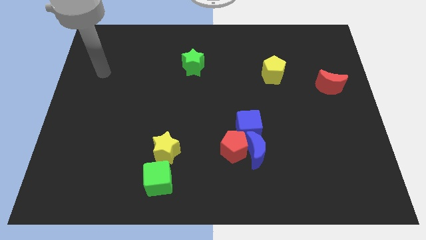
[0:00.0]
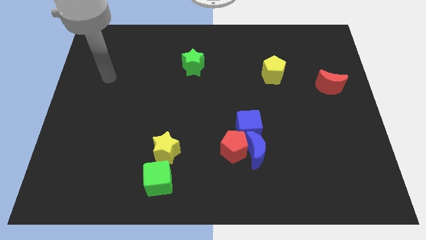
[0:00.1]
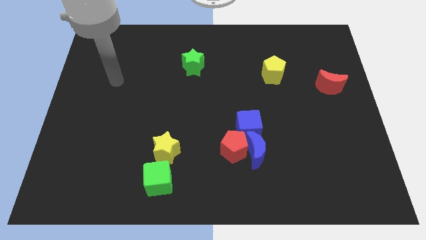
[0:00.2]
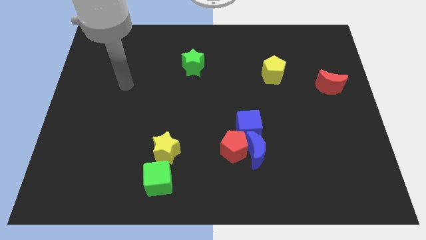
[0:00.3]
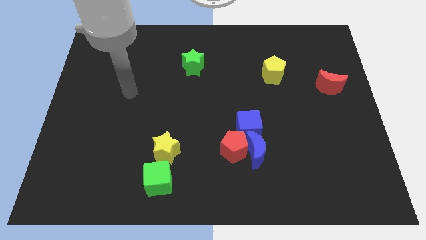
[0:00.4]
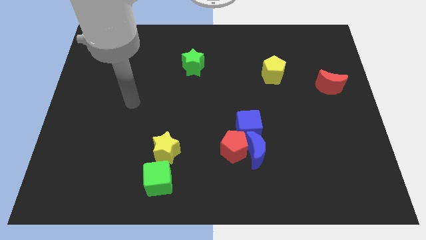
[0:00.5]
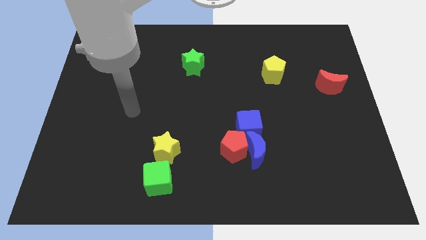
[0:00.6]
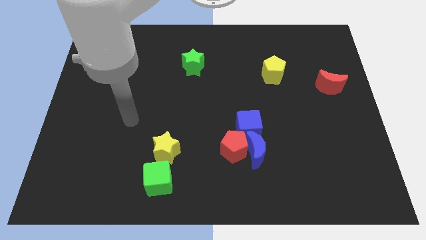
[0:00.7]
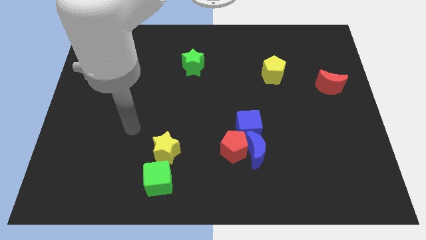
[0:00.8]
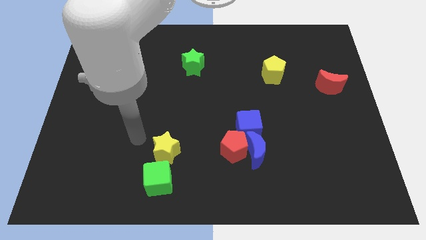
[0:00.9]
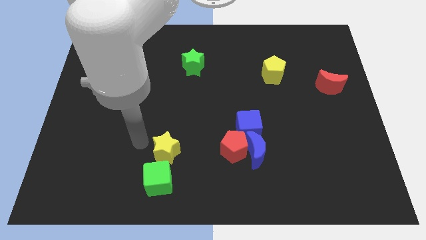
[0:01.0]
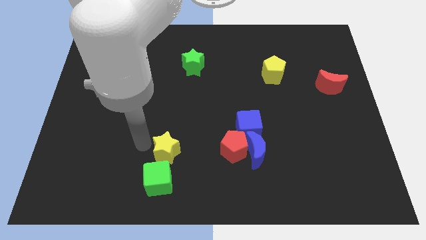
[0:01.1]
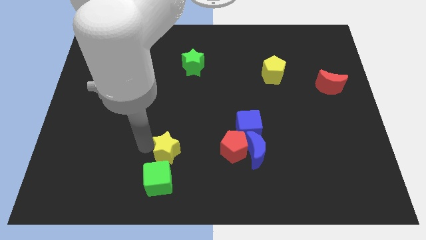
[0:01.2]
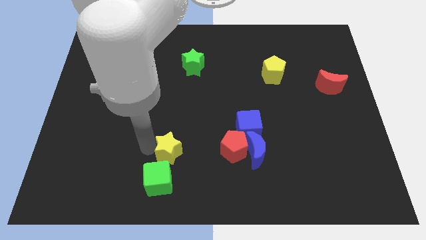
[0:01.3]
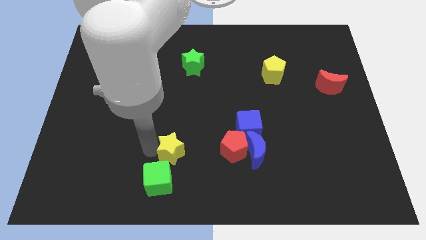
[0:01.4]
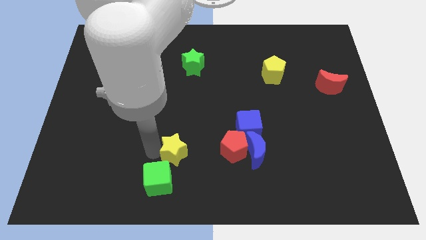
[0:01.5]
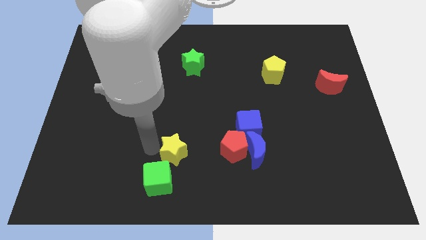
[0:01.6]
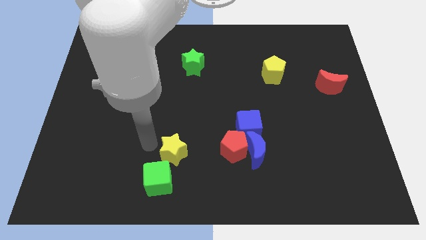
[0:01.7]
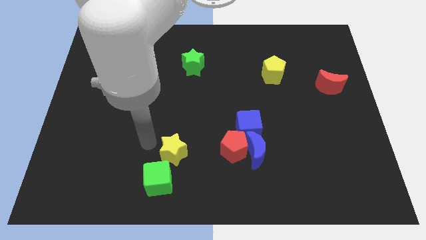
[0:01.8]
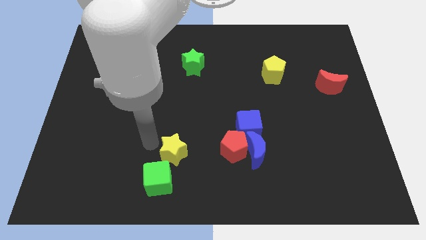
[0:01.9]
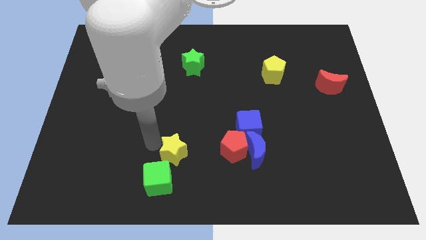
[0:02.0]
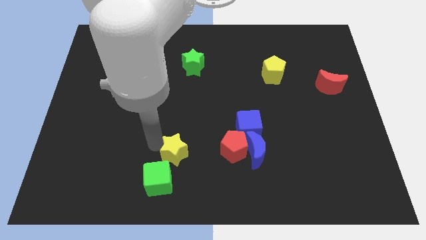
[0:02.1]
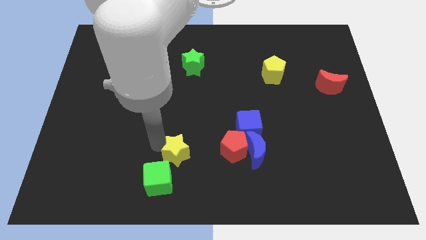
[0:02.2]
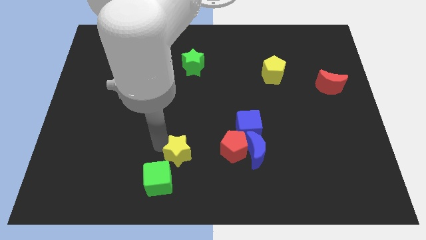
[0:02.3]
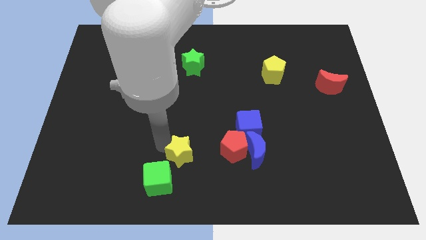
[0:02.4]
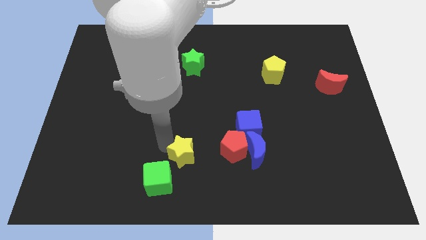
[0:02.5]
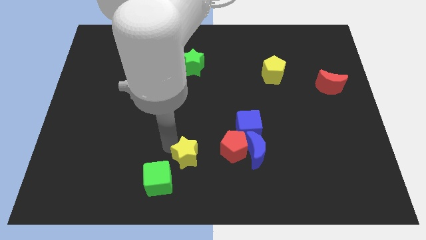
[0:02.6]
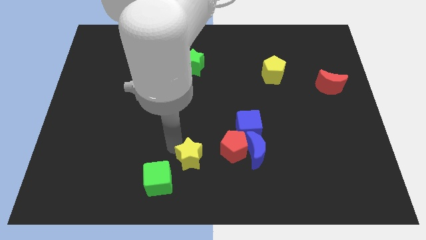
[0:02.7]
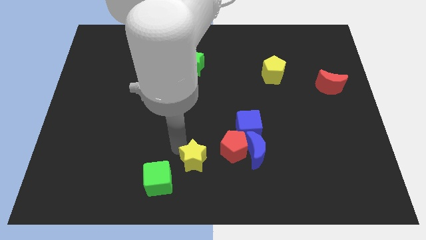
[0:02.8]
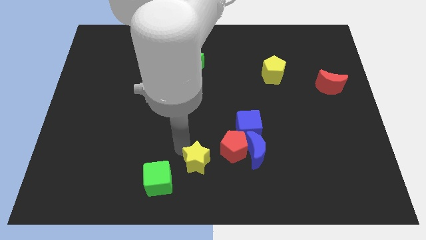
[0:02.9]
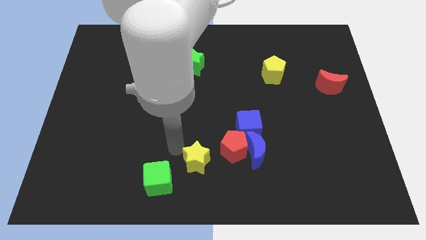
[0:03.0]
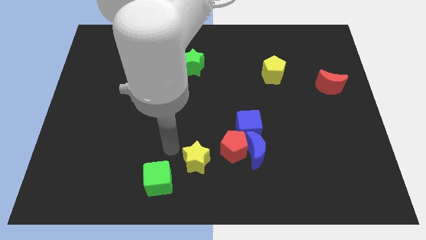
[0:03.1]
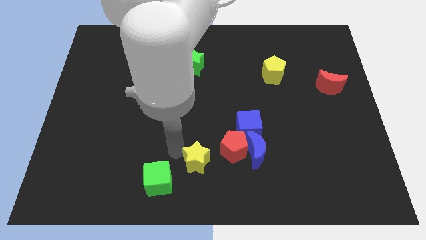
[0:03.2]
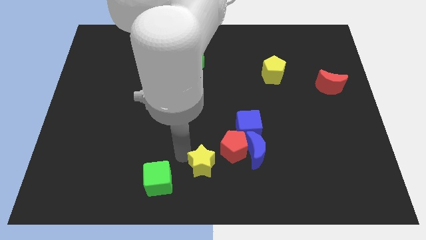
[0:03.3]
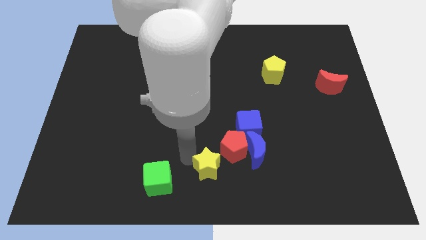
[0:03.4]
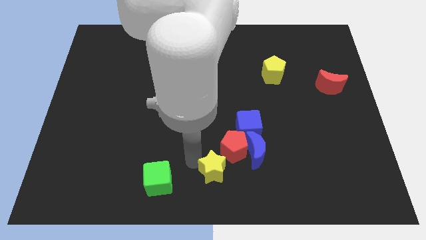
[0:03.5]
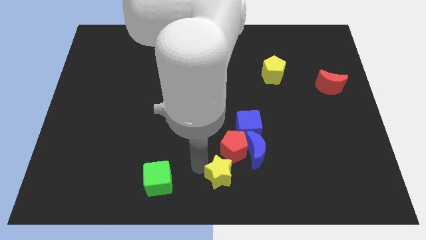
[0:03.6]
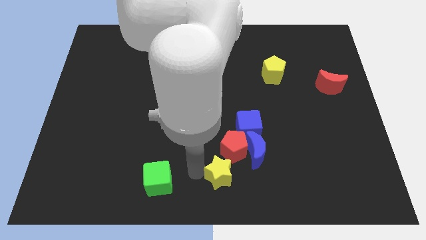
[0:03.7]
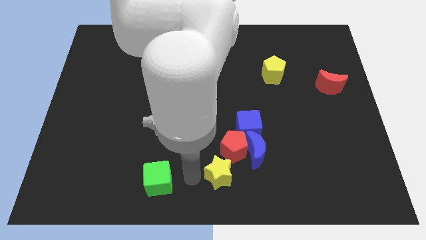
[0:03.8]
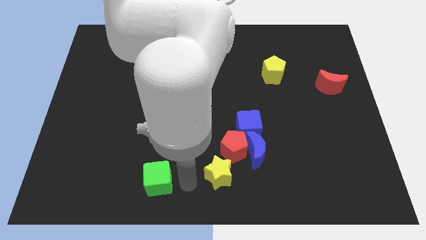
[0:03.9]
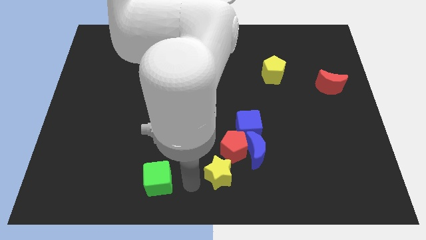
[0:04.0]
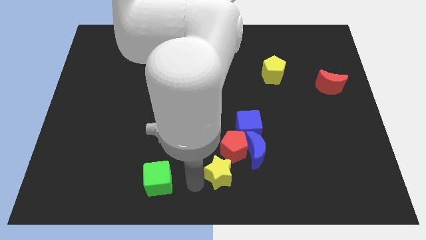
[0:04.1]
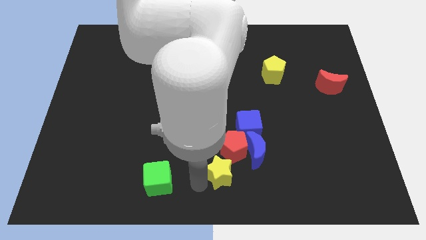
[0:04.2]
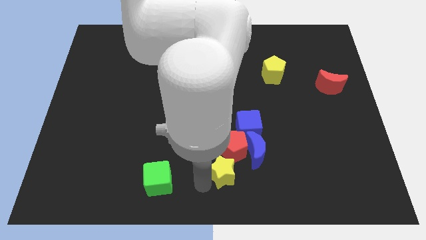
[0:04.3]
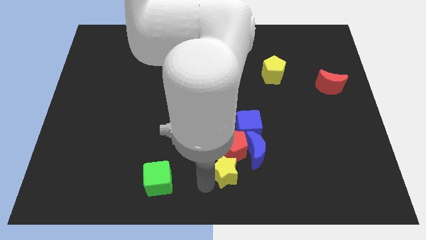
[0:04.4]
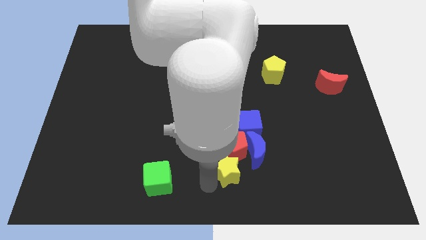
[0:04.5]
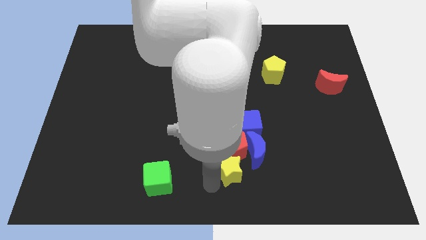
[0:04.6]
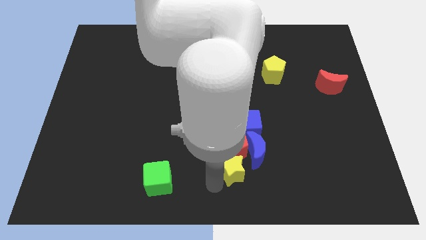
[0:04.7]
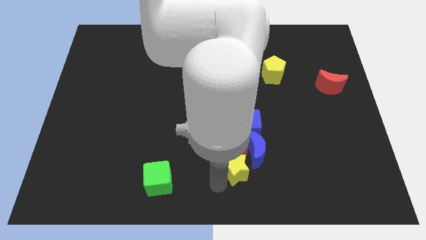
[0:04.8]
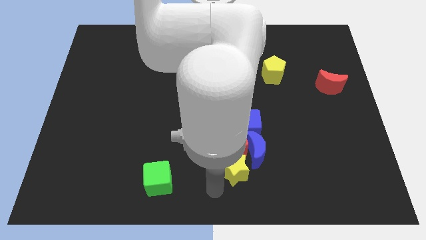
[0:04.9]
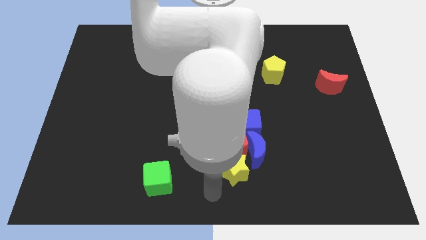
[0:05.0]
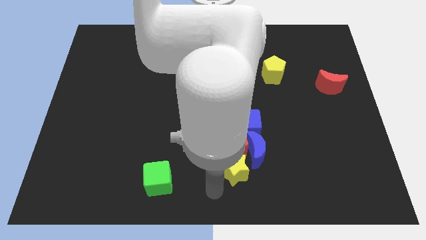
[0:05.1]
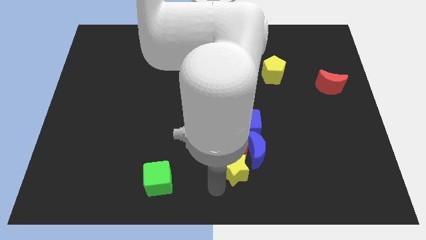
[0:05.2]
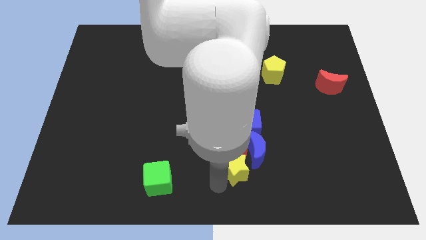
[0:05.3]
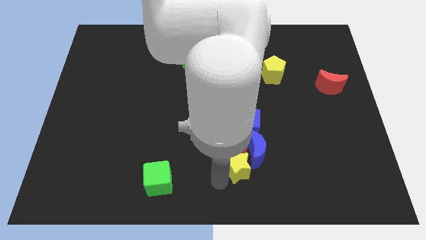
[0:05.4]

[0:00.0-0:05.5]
slide the yellow star to the blue moon

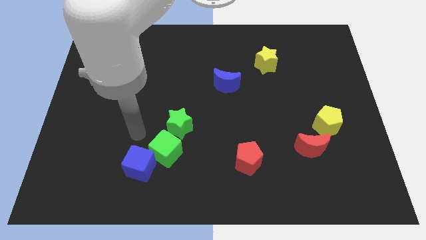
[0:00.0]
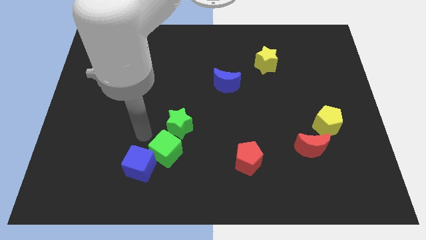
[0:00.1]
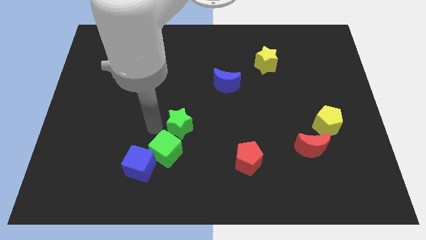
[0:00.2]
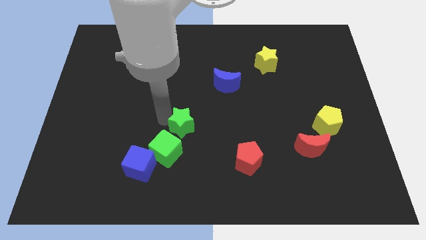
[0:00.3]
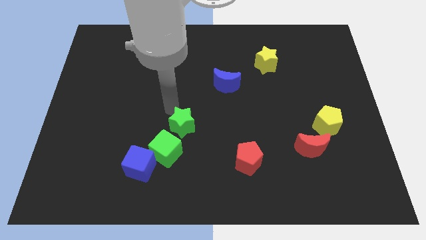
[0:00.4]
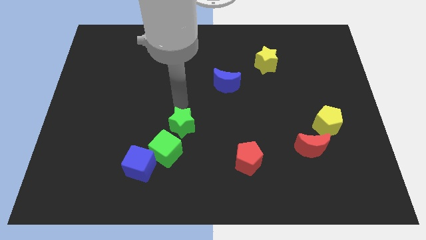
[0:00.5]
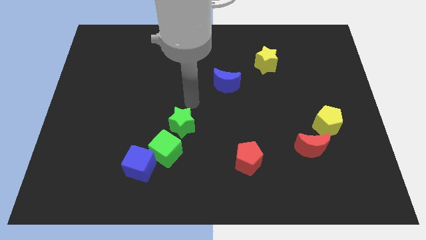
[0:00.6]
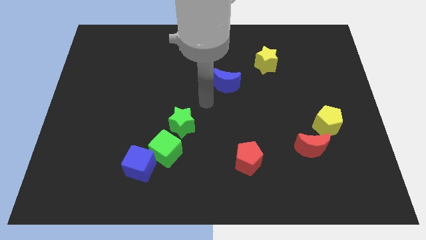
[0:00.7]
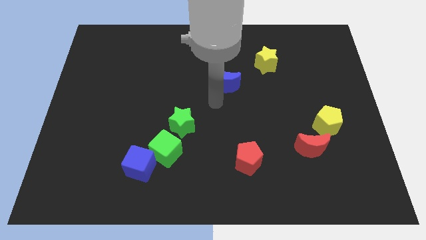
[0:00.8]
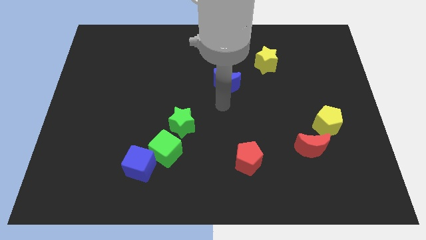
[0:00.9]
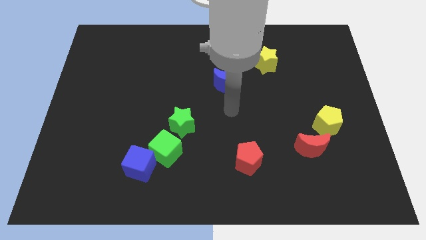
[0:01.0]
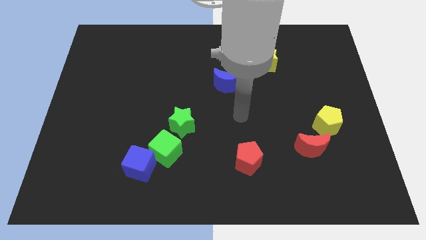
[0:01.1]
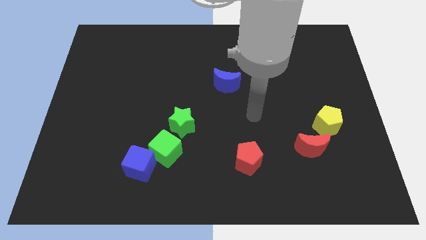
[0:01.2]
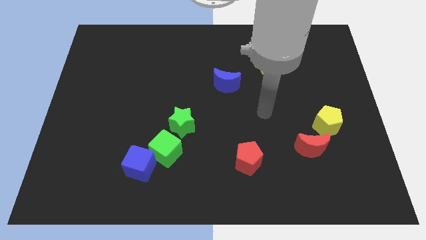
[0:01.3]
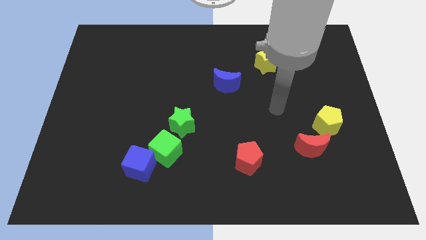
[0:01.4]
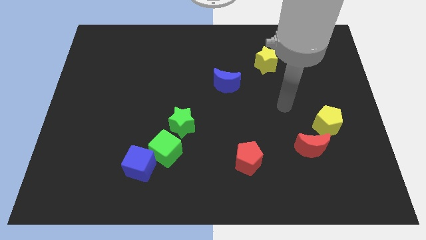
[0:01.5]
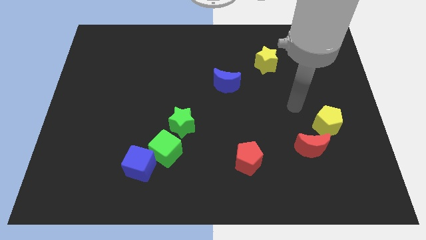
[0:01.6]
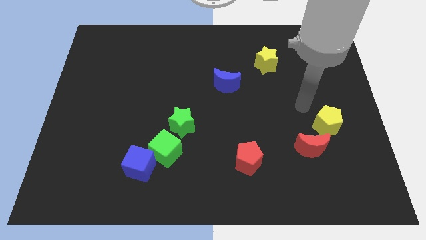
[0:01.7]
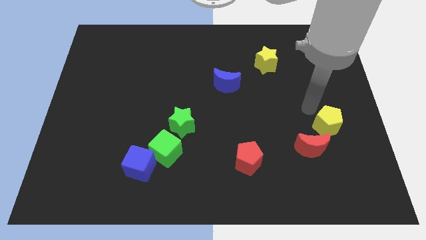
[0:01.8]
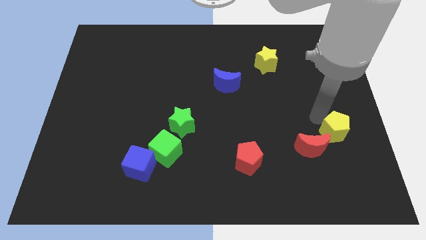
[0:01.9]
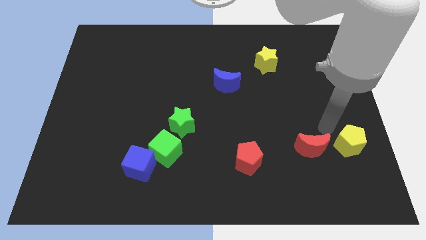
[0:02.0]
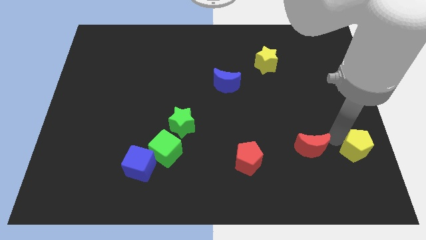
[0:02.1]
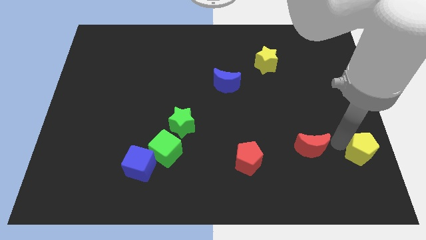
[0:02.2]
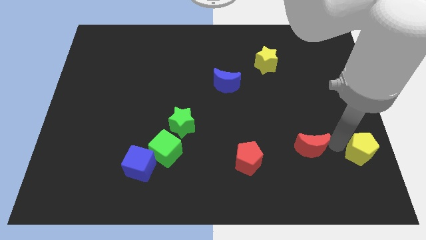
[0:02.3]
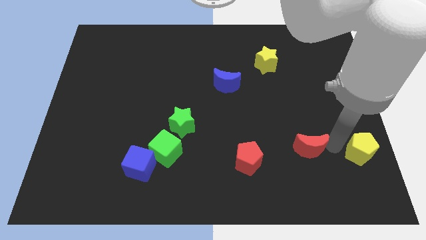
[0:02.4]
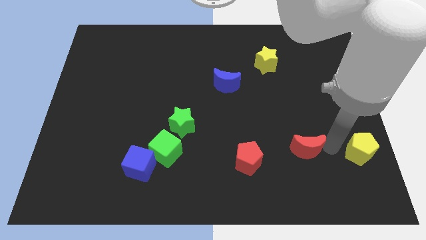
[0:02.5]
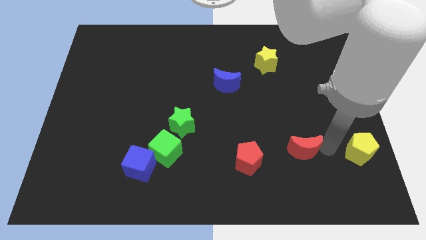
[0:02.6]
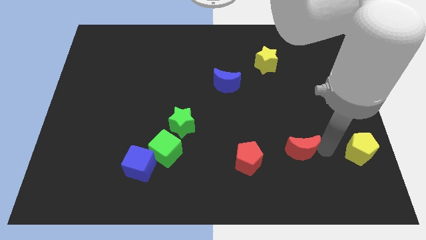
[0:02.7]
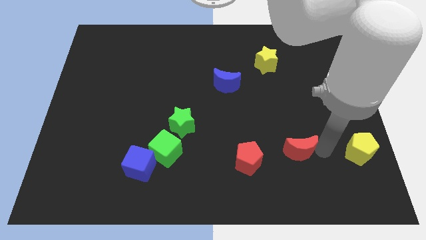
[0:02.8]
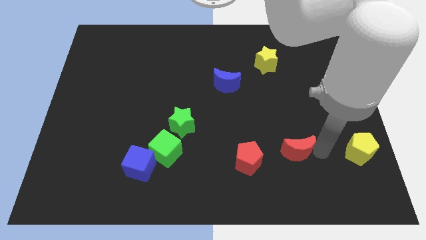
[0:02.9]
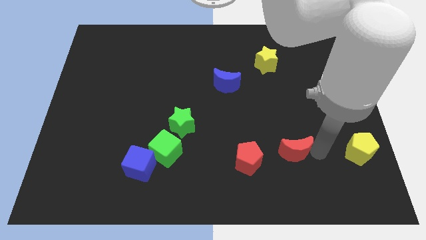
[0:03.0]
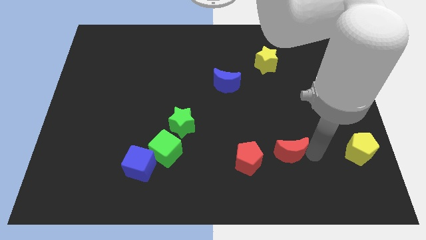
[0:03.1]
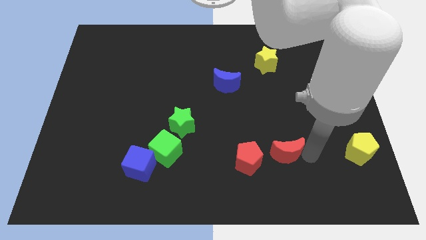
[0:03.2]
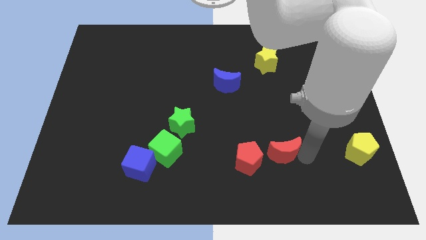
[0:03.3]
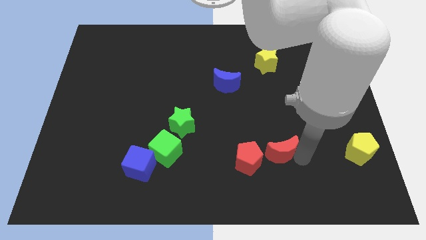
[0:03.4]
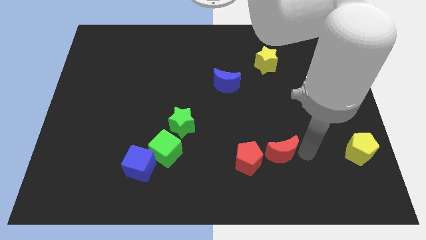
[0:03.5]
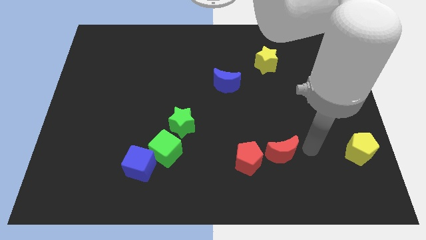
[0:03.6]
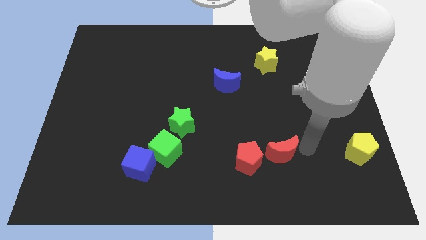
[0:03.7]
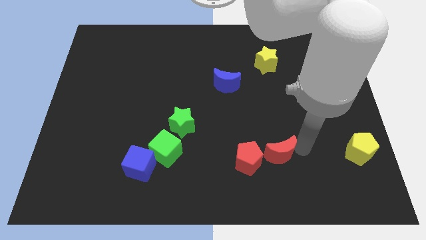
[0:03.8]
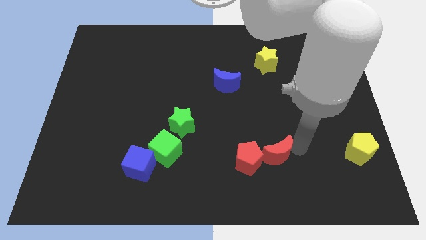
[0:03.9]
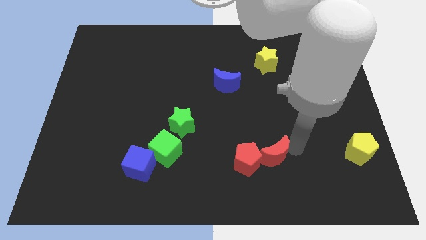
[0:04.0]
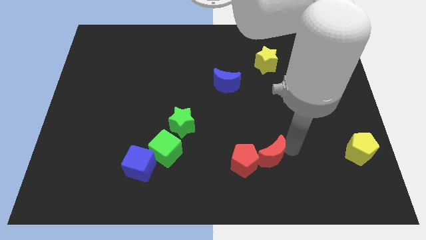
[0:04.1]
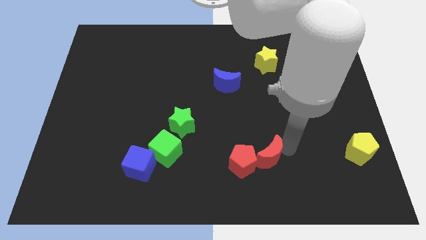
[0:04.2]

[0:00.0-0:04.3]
push the red moon to the red pentagon
